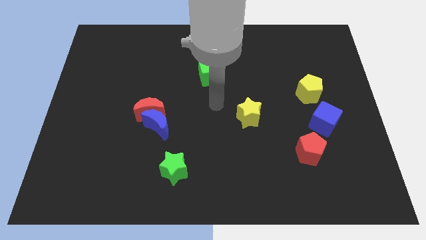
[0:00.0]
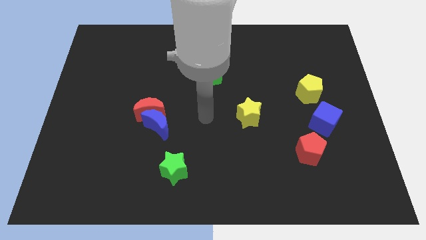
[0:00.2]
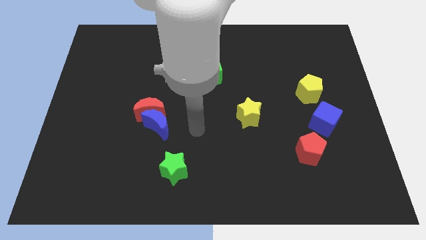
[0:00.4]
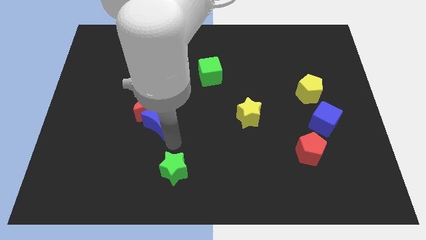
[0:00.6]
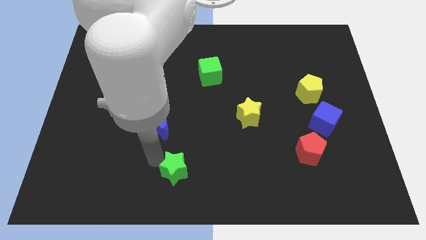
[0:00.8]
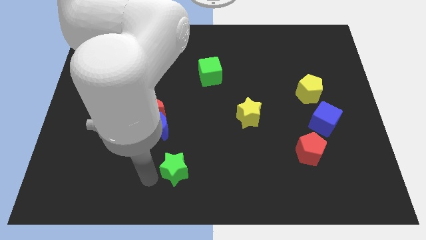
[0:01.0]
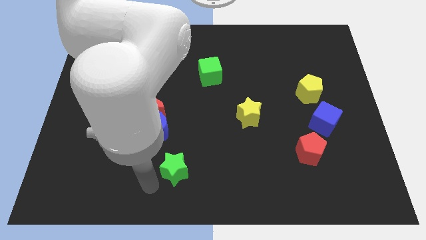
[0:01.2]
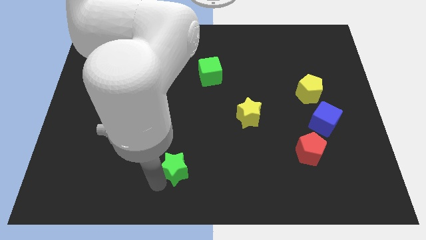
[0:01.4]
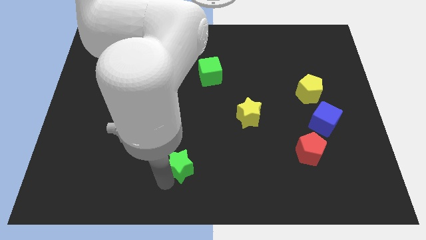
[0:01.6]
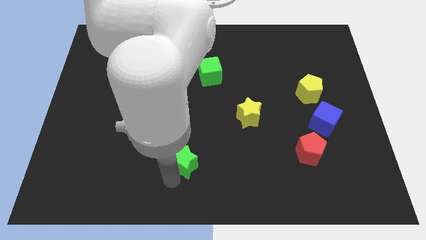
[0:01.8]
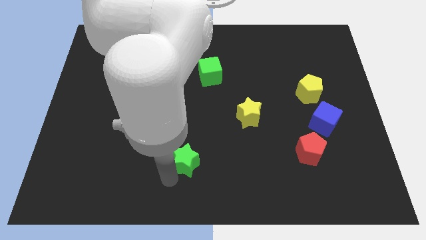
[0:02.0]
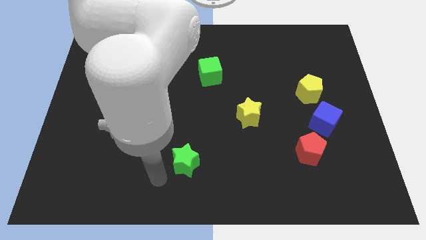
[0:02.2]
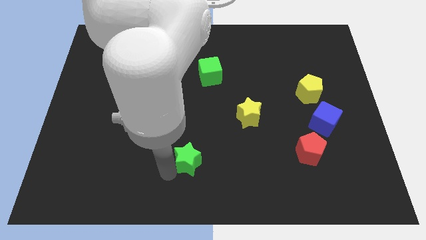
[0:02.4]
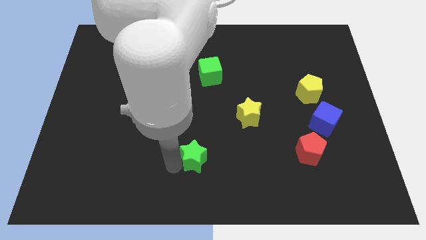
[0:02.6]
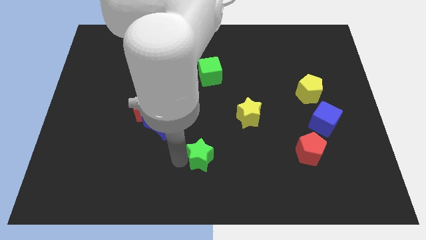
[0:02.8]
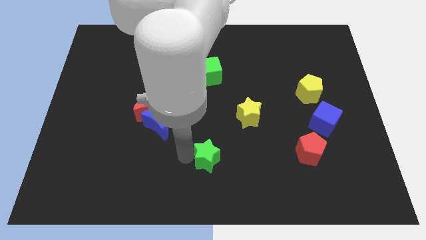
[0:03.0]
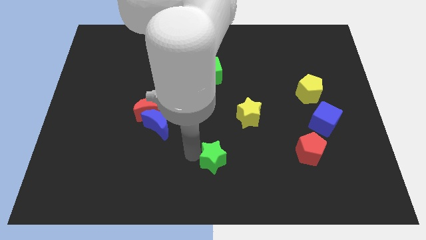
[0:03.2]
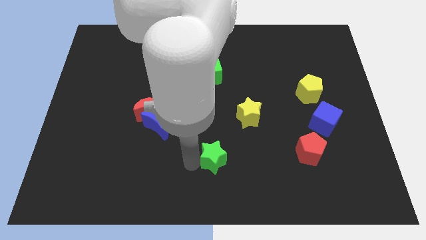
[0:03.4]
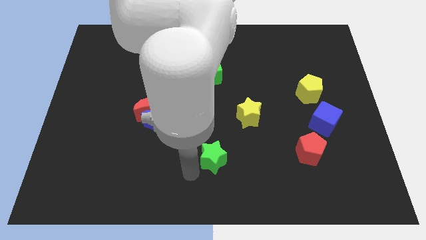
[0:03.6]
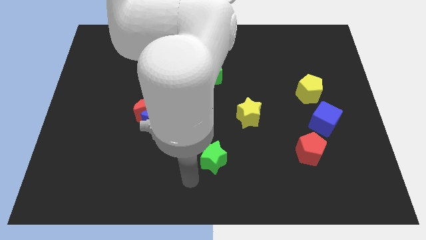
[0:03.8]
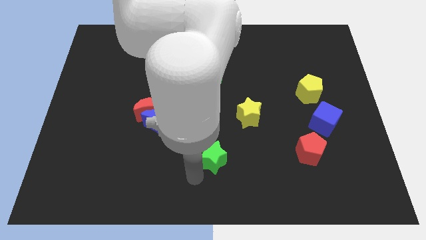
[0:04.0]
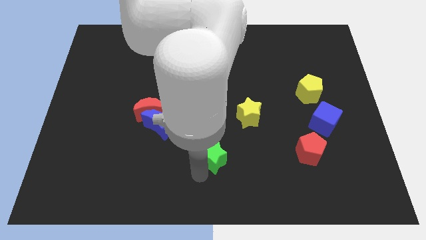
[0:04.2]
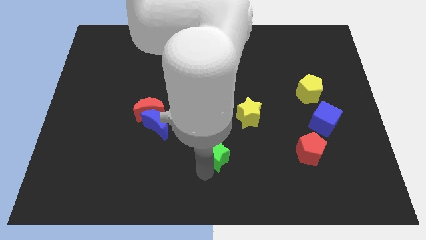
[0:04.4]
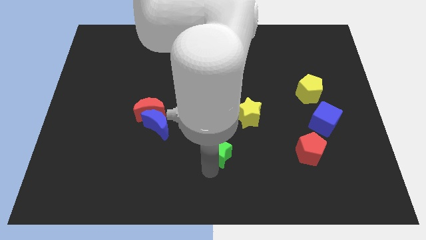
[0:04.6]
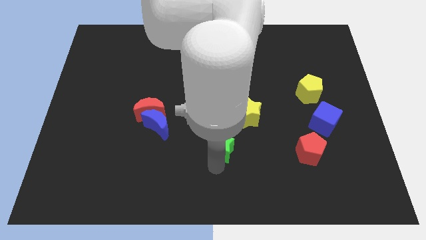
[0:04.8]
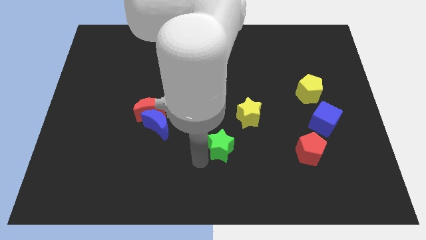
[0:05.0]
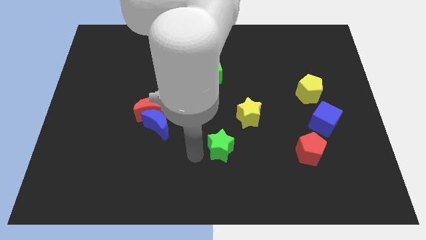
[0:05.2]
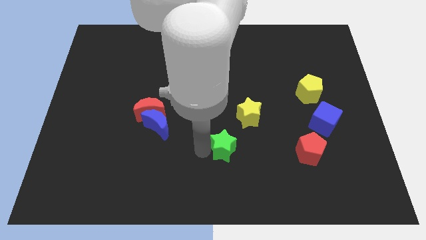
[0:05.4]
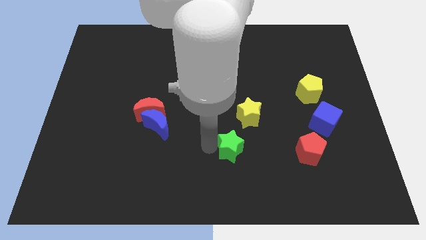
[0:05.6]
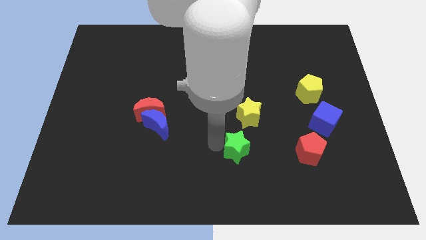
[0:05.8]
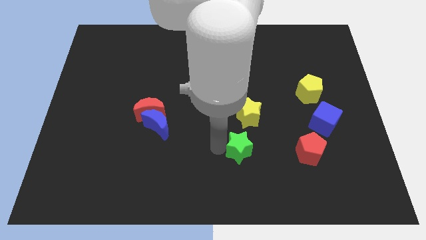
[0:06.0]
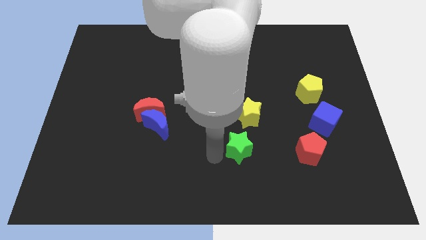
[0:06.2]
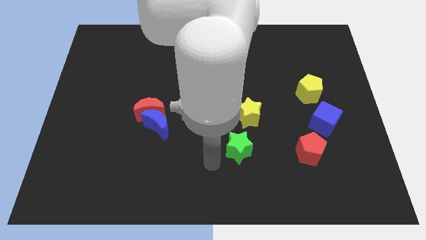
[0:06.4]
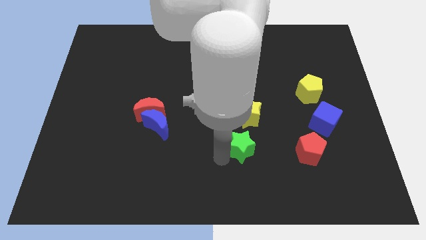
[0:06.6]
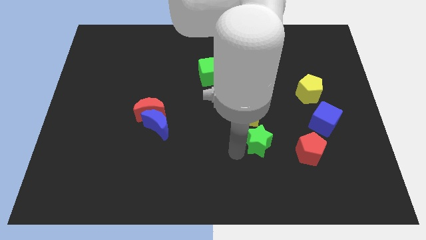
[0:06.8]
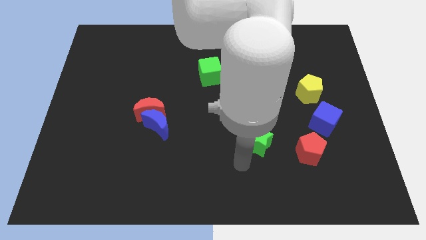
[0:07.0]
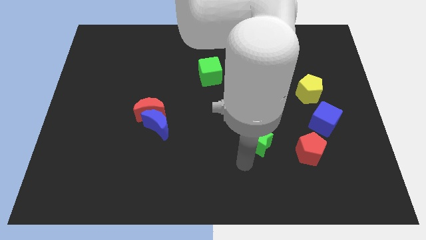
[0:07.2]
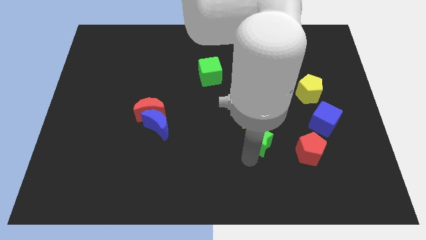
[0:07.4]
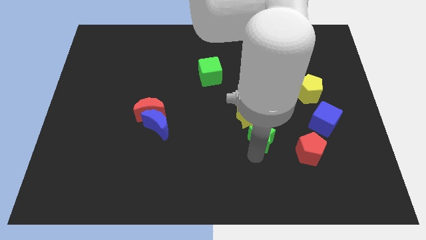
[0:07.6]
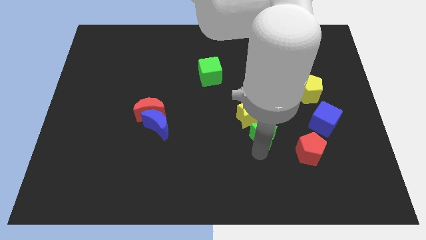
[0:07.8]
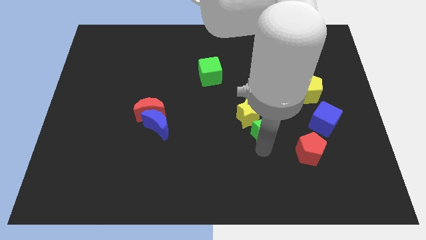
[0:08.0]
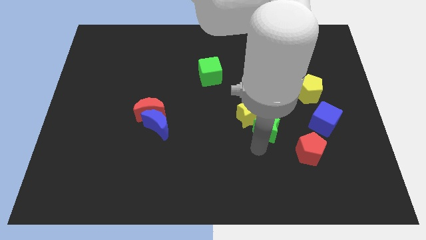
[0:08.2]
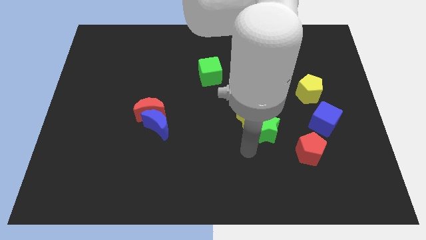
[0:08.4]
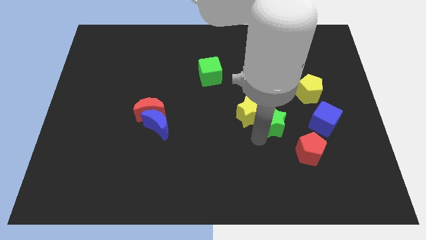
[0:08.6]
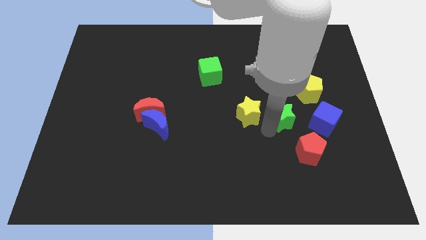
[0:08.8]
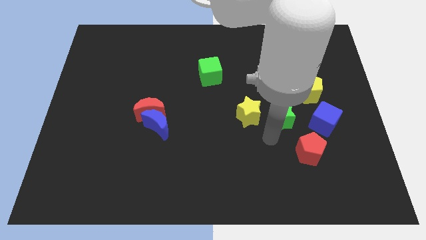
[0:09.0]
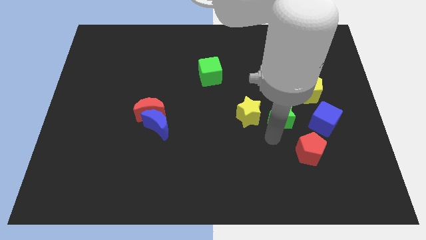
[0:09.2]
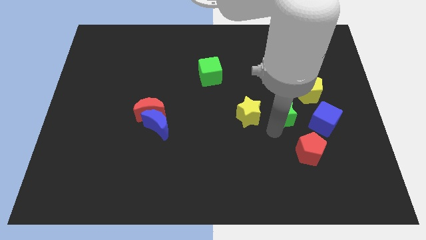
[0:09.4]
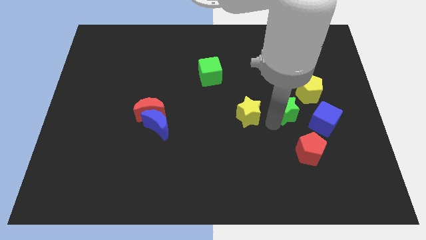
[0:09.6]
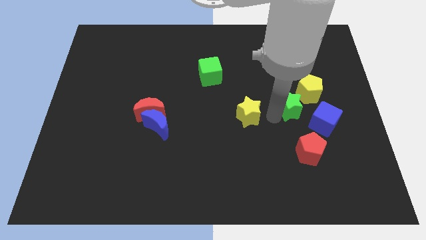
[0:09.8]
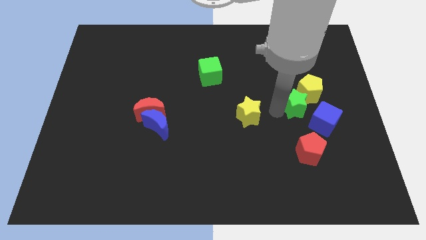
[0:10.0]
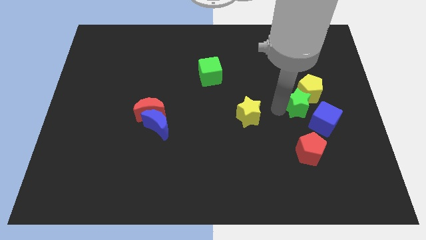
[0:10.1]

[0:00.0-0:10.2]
move the green star close to the yellow pentagon

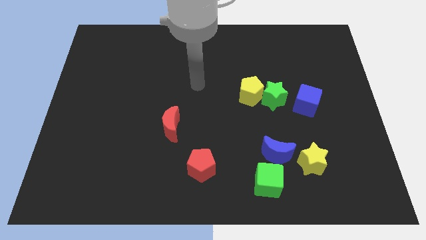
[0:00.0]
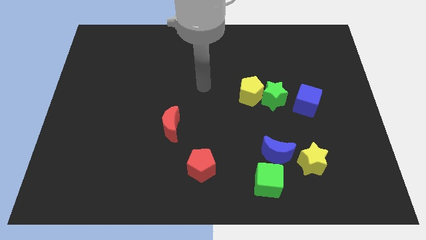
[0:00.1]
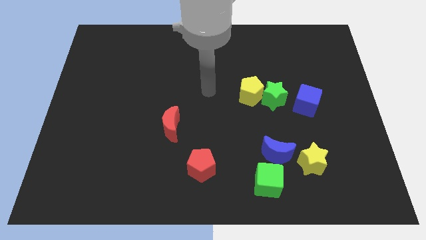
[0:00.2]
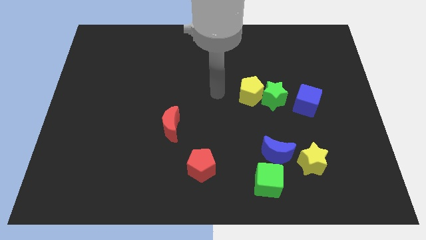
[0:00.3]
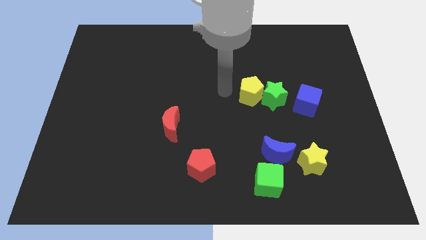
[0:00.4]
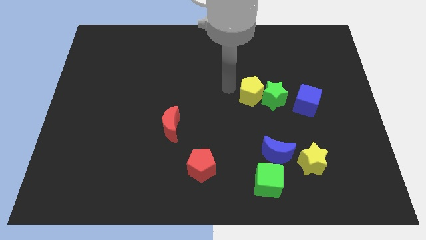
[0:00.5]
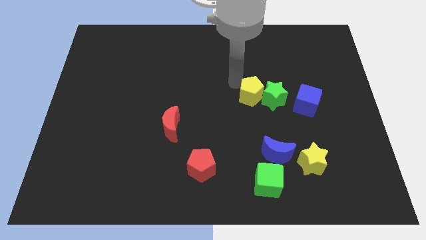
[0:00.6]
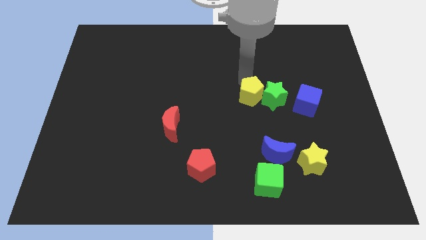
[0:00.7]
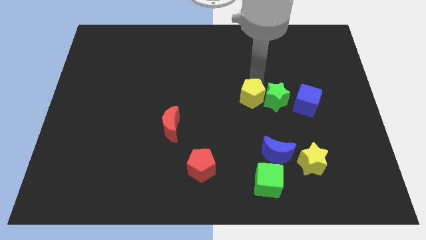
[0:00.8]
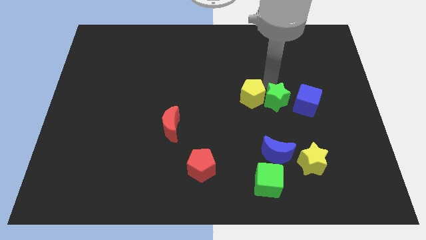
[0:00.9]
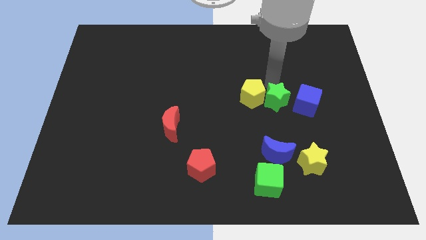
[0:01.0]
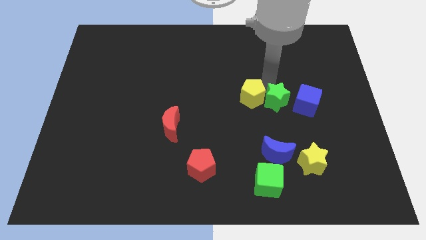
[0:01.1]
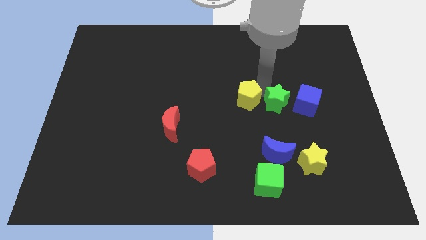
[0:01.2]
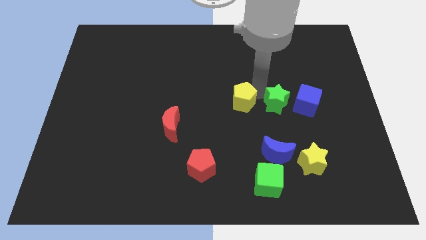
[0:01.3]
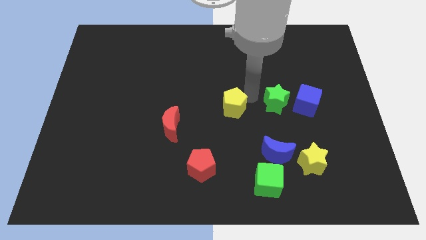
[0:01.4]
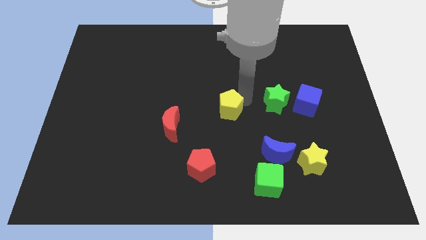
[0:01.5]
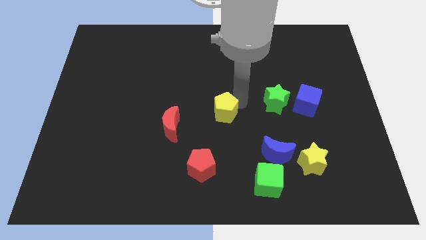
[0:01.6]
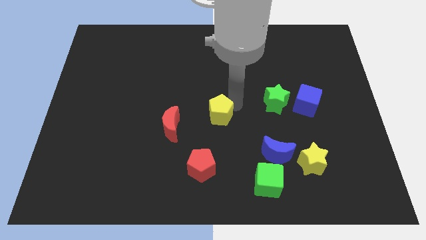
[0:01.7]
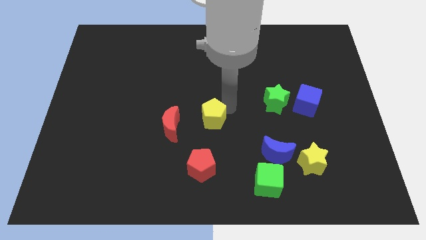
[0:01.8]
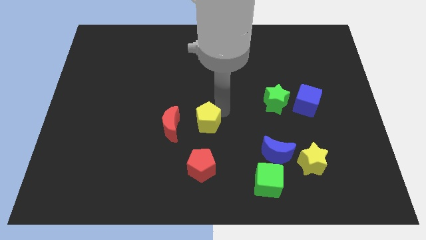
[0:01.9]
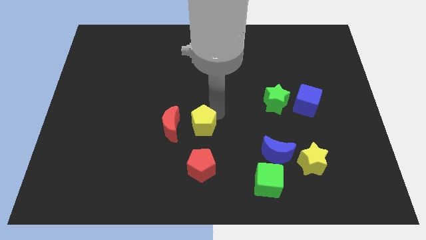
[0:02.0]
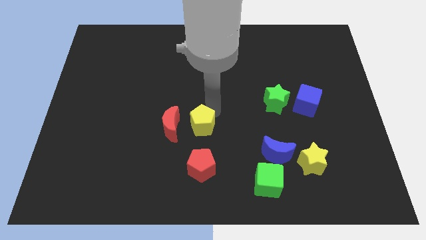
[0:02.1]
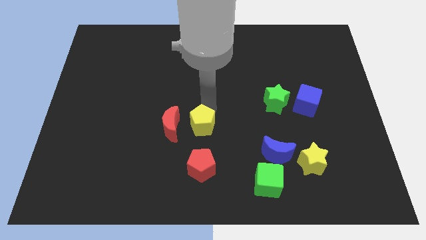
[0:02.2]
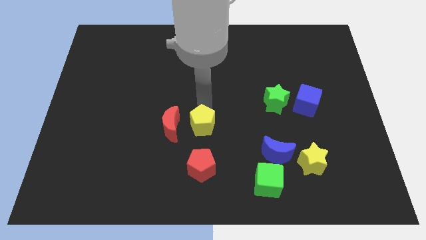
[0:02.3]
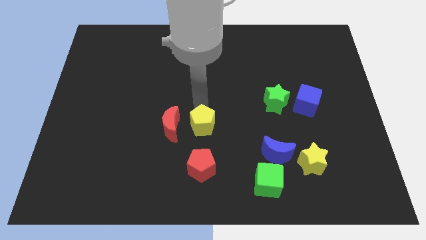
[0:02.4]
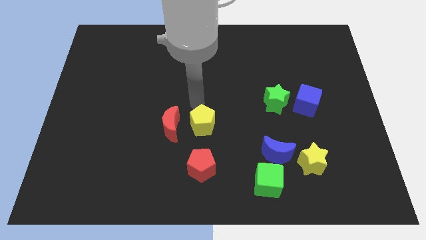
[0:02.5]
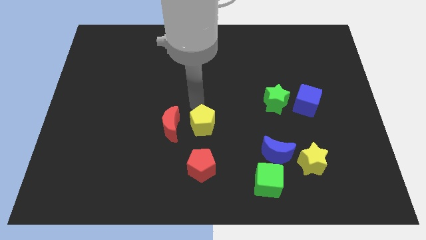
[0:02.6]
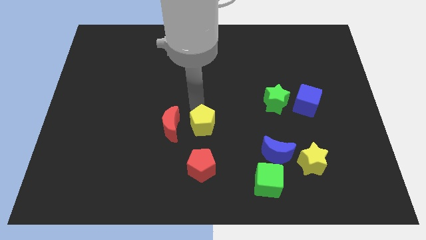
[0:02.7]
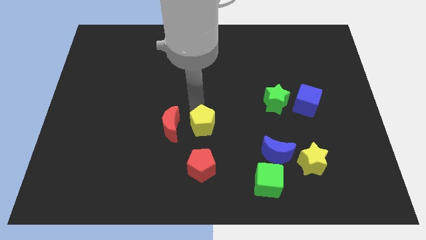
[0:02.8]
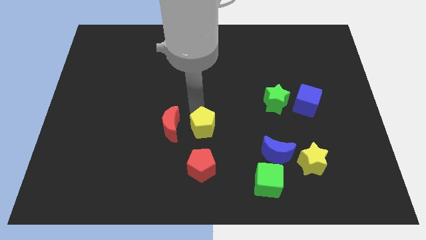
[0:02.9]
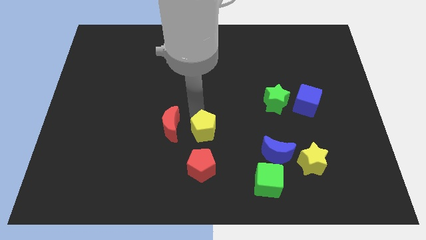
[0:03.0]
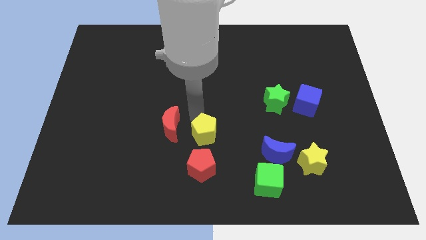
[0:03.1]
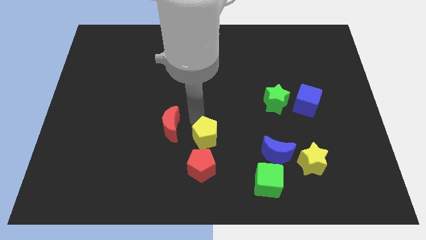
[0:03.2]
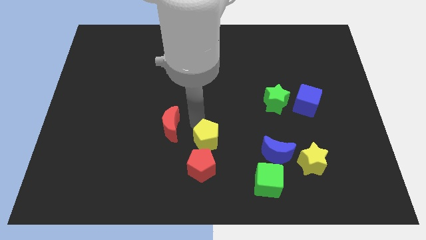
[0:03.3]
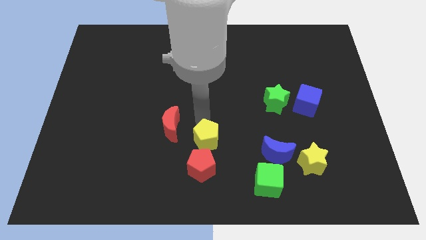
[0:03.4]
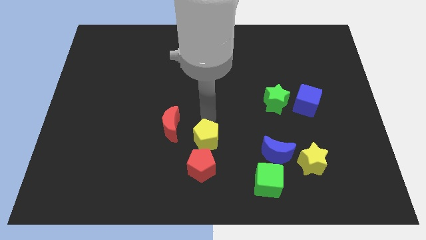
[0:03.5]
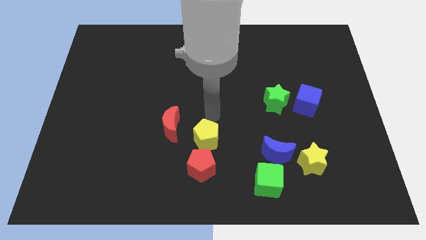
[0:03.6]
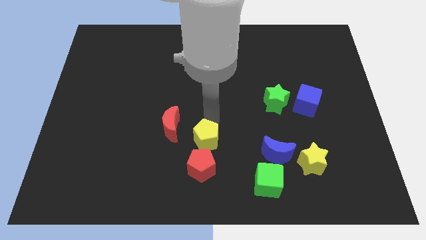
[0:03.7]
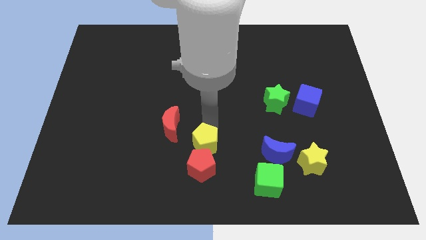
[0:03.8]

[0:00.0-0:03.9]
put the yellow pentagon close to the red pentagon
